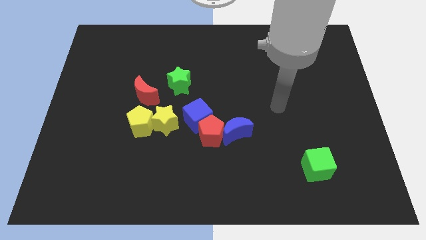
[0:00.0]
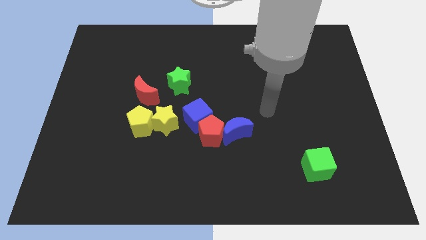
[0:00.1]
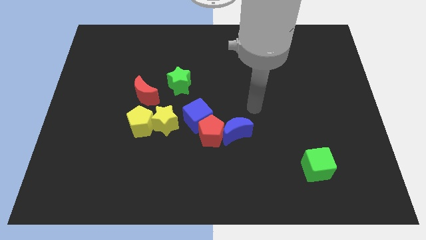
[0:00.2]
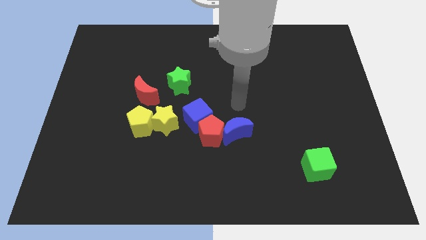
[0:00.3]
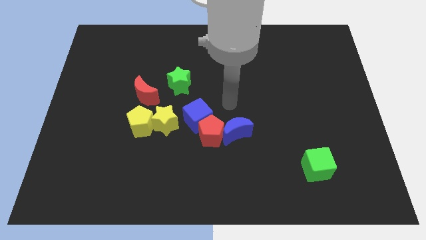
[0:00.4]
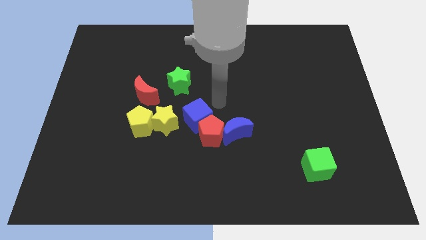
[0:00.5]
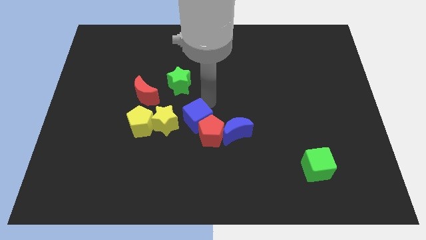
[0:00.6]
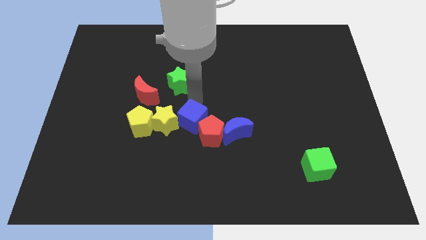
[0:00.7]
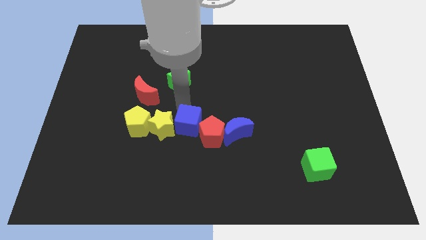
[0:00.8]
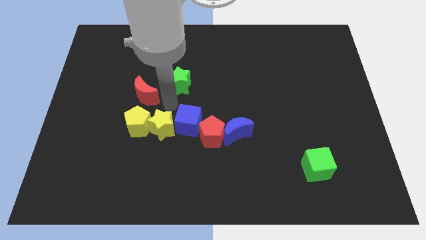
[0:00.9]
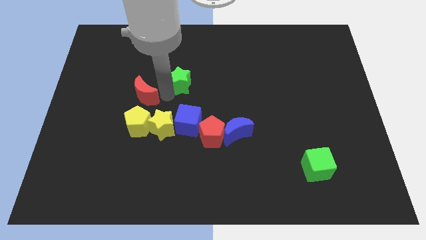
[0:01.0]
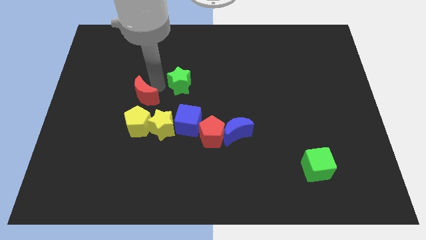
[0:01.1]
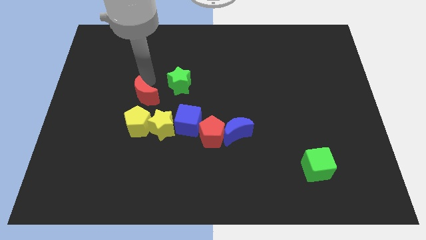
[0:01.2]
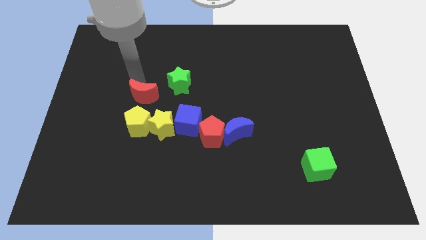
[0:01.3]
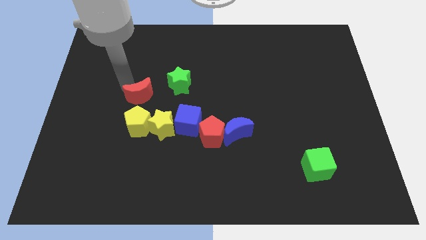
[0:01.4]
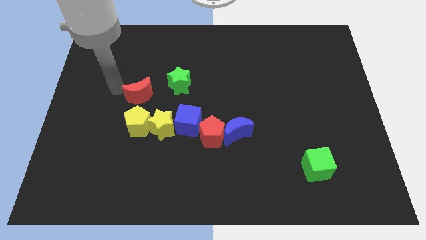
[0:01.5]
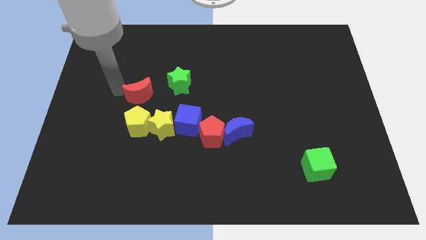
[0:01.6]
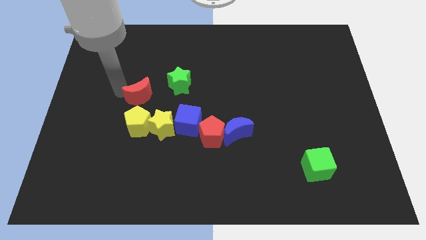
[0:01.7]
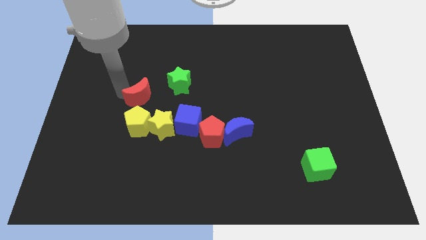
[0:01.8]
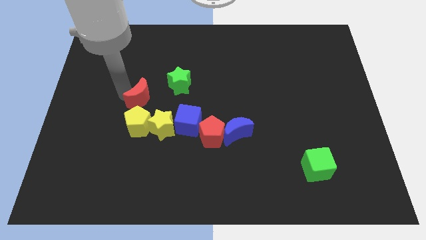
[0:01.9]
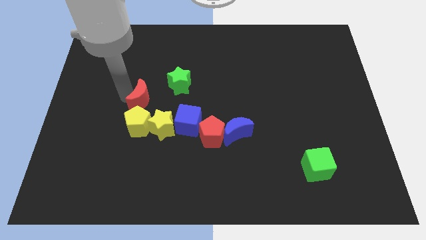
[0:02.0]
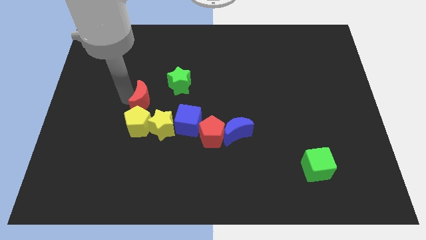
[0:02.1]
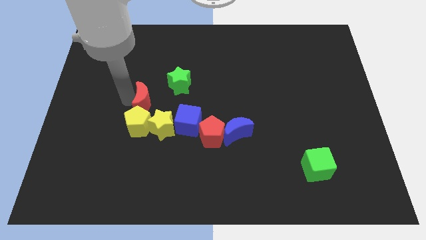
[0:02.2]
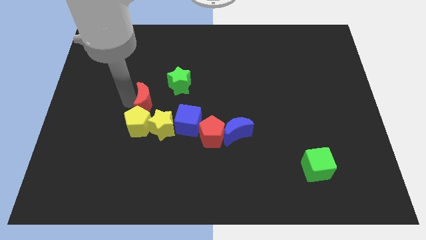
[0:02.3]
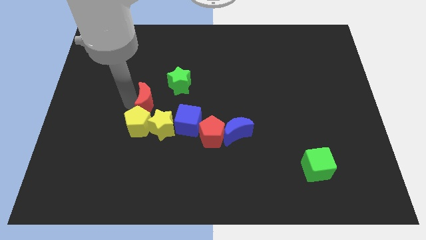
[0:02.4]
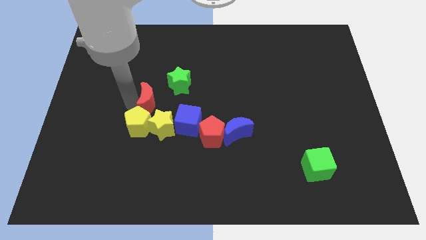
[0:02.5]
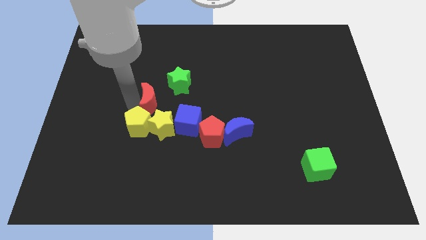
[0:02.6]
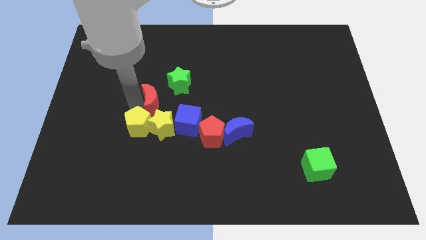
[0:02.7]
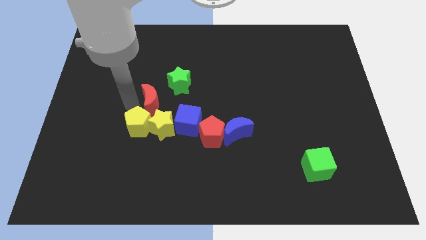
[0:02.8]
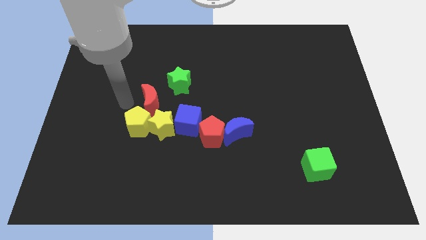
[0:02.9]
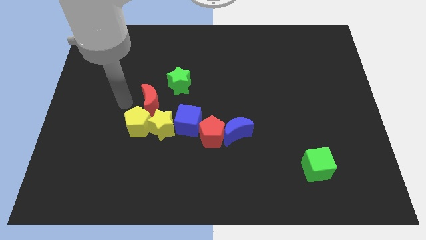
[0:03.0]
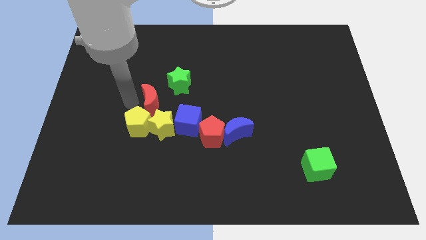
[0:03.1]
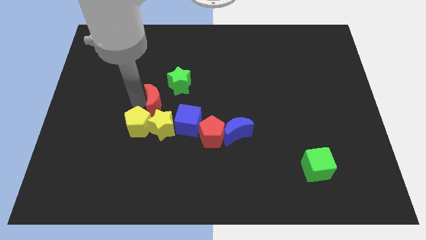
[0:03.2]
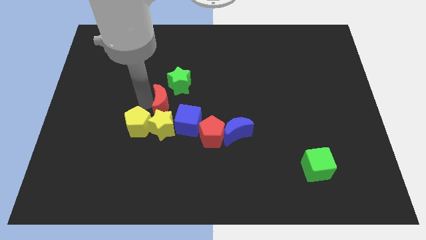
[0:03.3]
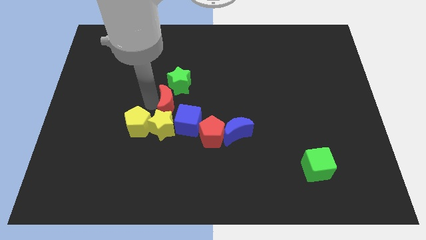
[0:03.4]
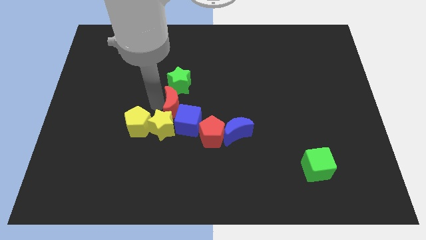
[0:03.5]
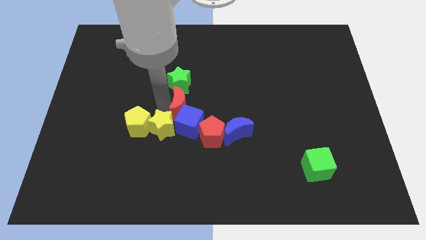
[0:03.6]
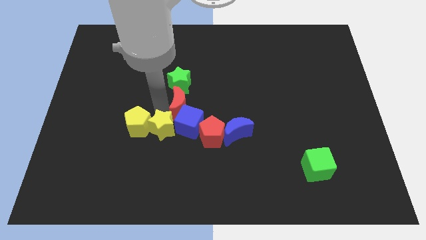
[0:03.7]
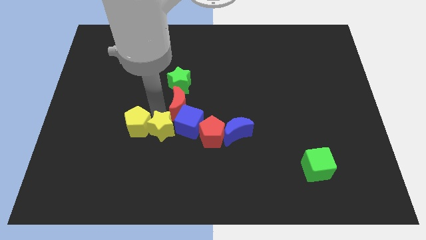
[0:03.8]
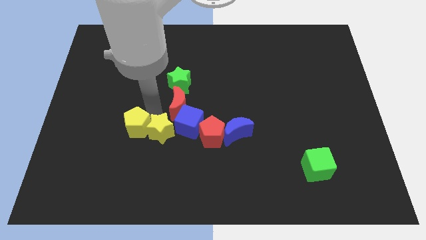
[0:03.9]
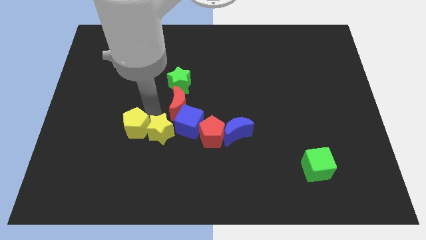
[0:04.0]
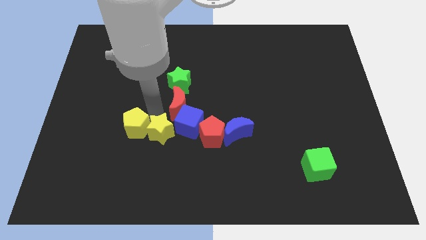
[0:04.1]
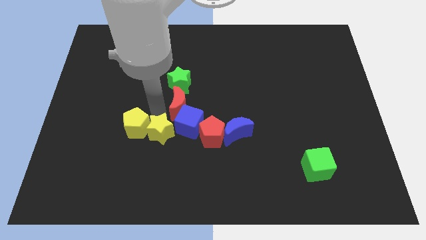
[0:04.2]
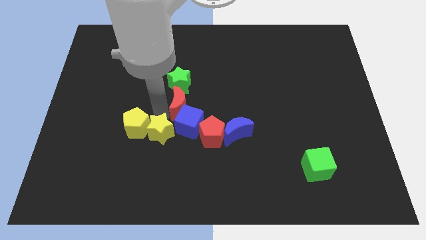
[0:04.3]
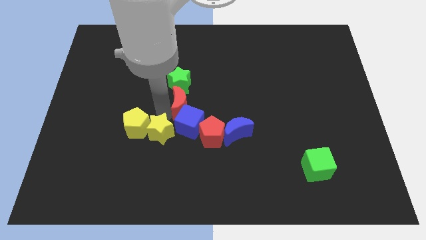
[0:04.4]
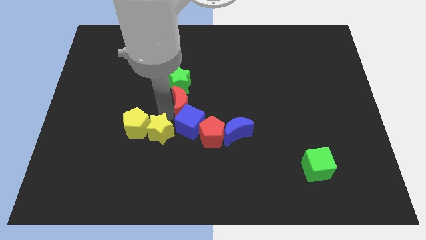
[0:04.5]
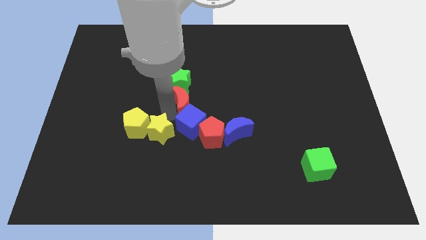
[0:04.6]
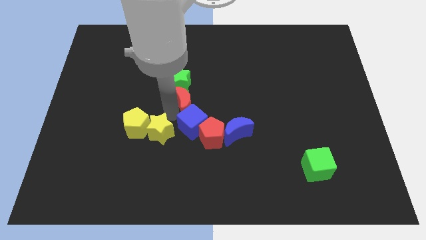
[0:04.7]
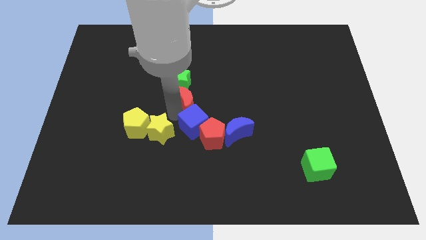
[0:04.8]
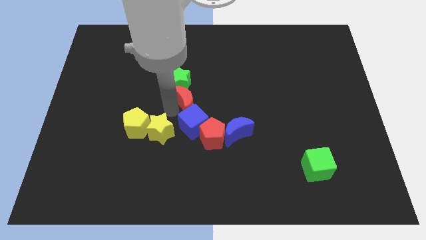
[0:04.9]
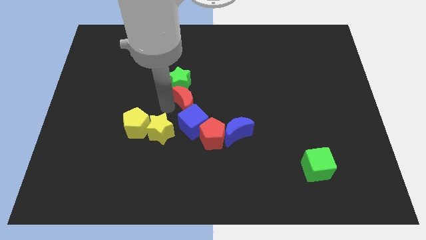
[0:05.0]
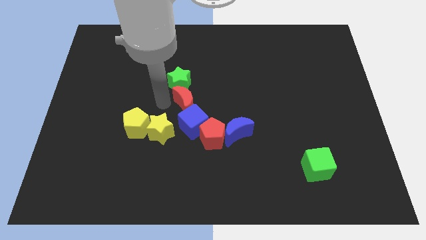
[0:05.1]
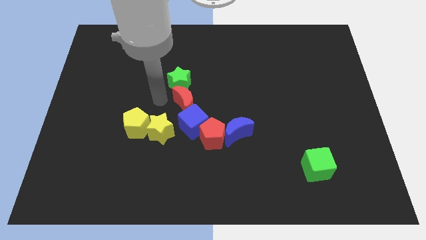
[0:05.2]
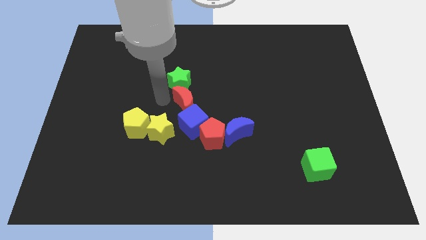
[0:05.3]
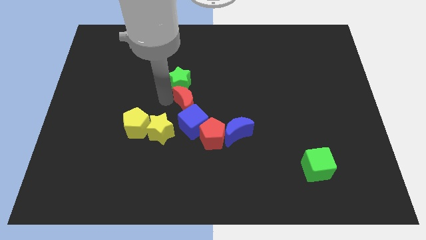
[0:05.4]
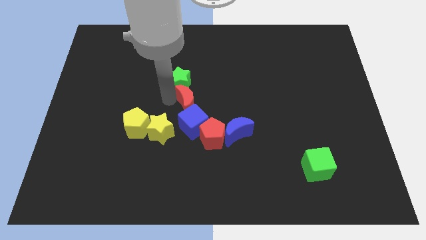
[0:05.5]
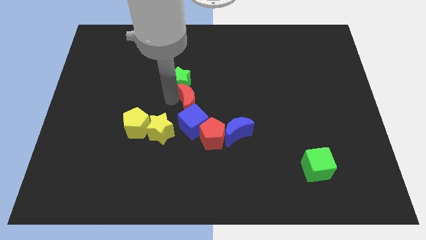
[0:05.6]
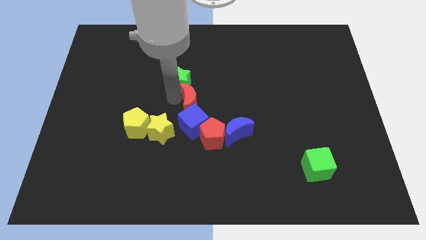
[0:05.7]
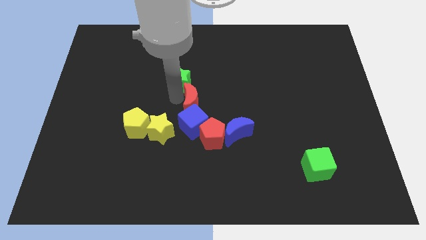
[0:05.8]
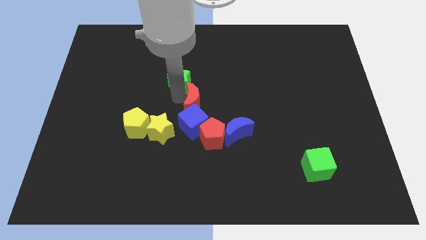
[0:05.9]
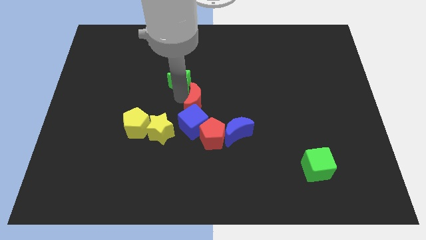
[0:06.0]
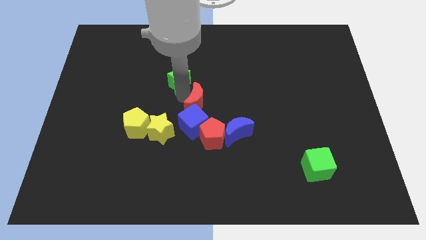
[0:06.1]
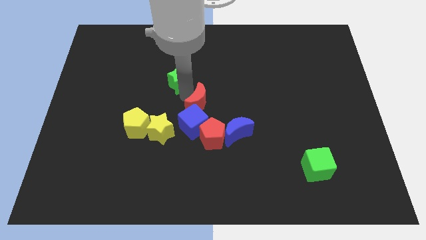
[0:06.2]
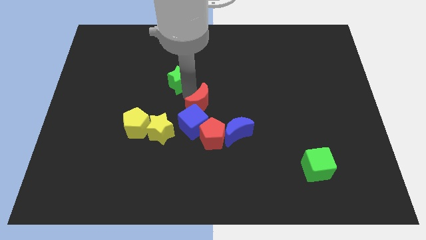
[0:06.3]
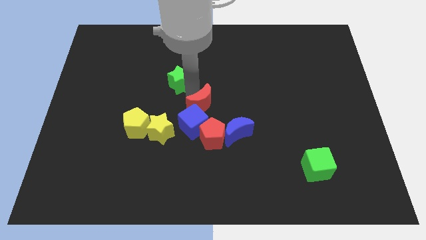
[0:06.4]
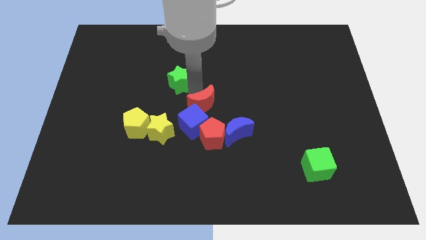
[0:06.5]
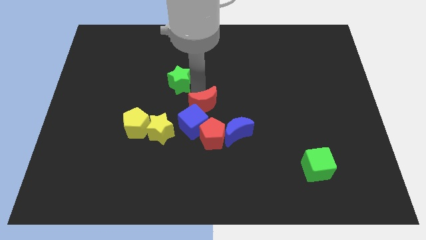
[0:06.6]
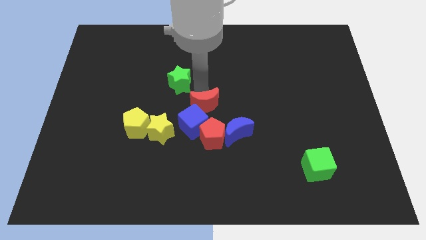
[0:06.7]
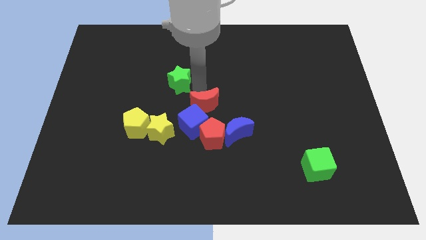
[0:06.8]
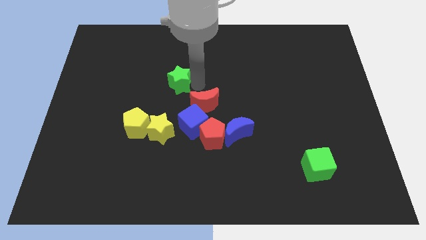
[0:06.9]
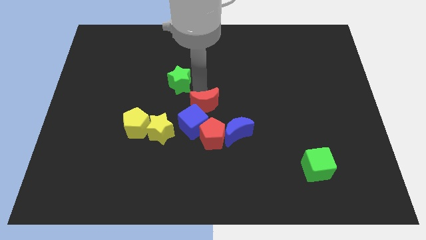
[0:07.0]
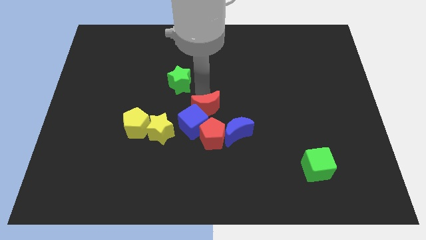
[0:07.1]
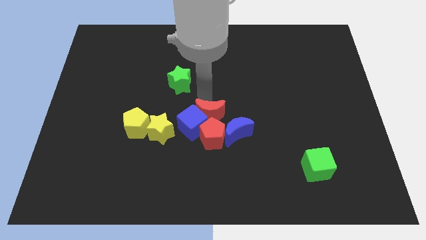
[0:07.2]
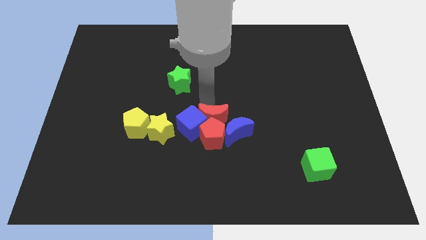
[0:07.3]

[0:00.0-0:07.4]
slide the red moon close to the red pentagon
